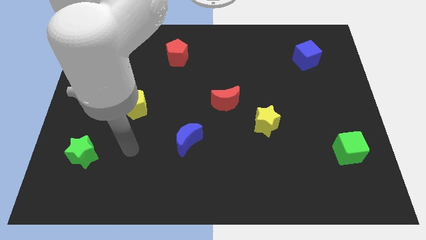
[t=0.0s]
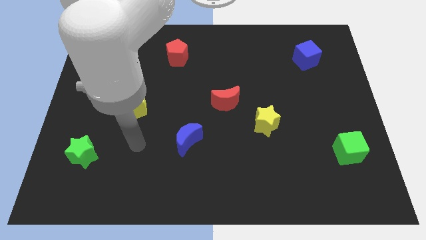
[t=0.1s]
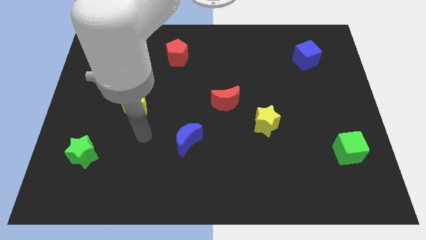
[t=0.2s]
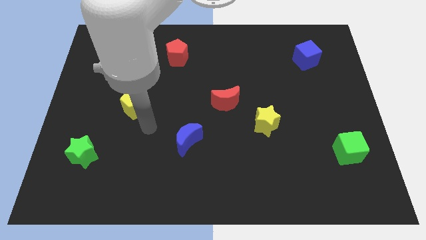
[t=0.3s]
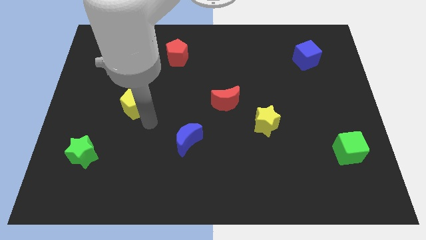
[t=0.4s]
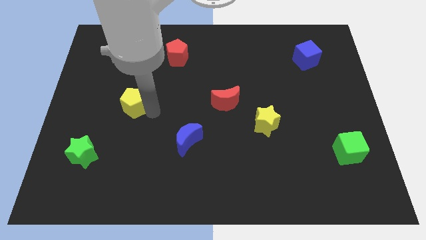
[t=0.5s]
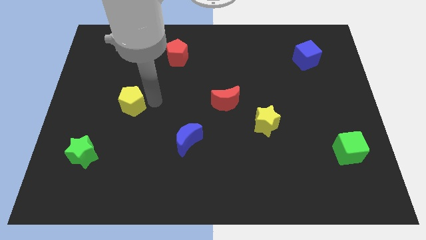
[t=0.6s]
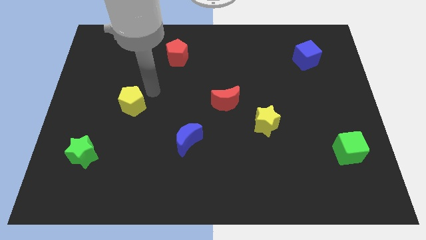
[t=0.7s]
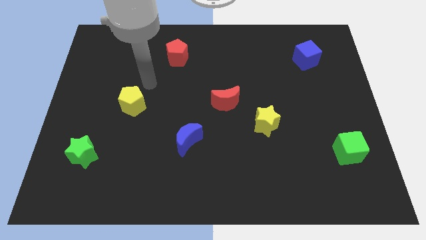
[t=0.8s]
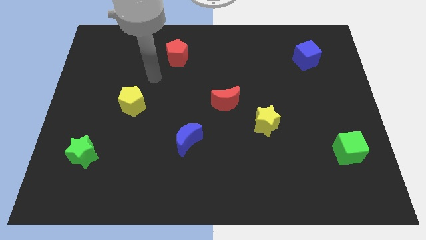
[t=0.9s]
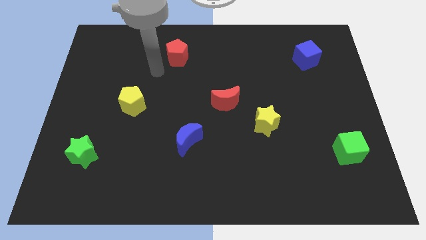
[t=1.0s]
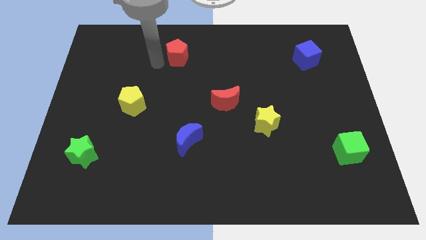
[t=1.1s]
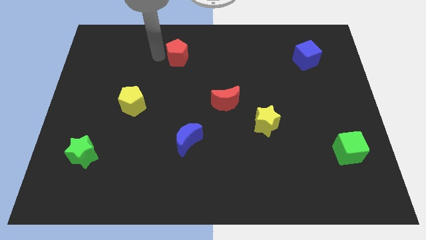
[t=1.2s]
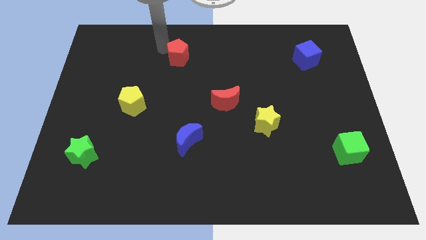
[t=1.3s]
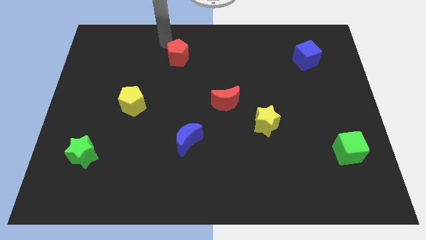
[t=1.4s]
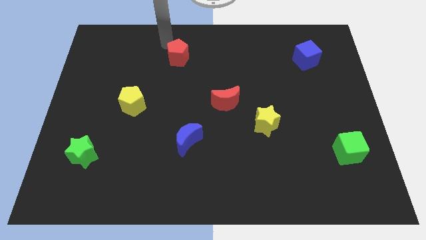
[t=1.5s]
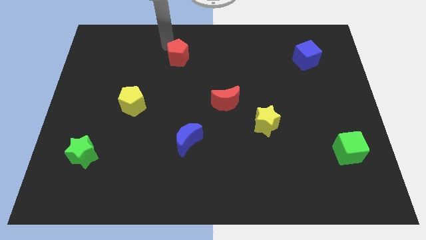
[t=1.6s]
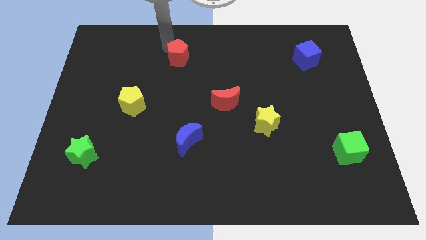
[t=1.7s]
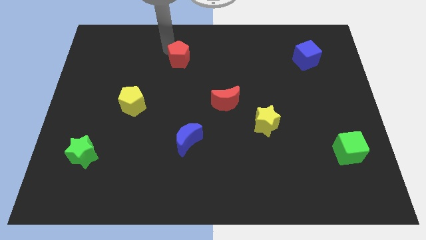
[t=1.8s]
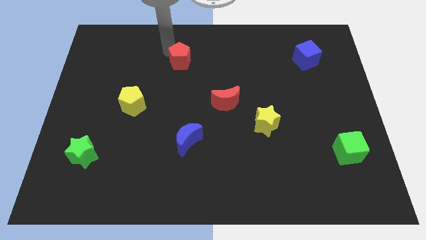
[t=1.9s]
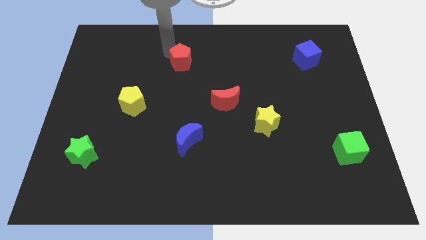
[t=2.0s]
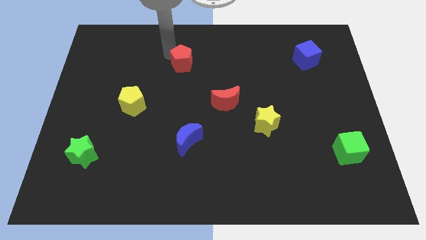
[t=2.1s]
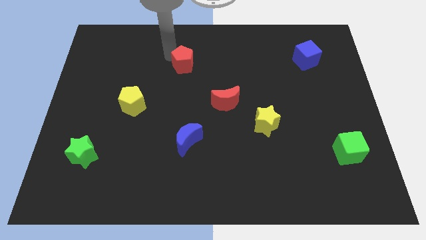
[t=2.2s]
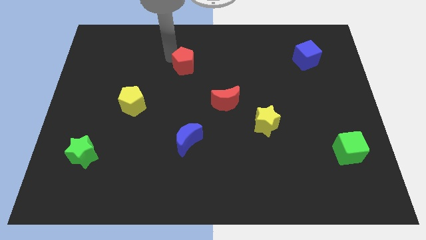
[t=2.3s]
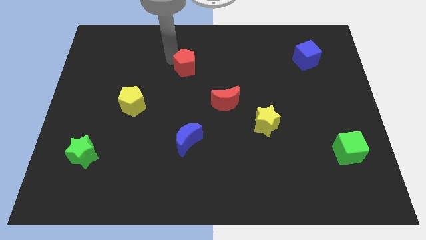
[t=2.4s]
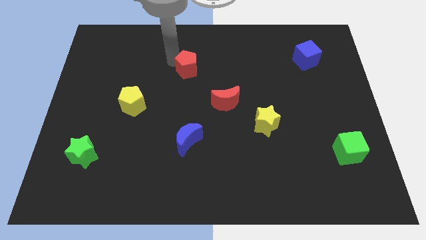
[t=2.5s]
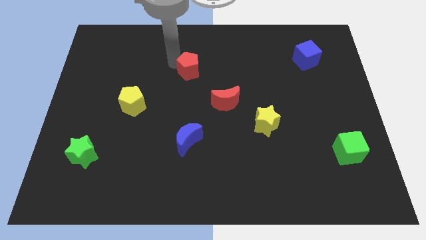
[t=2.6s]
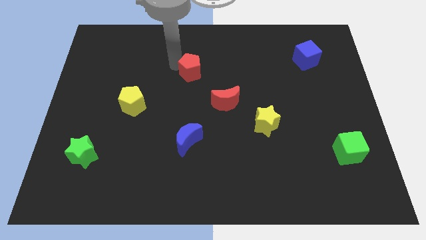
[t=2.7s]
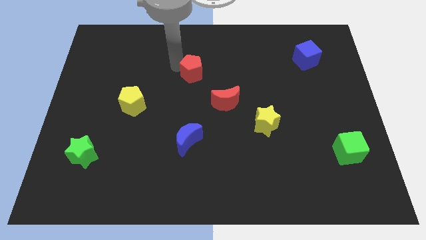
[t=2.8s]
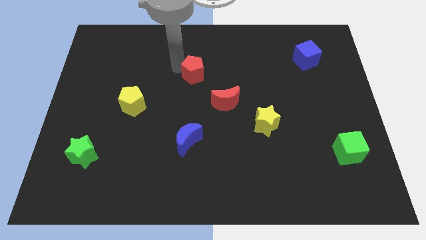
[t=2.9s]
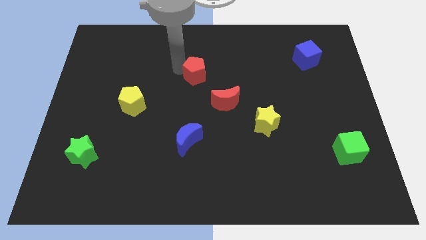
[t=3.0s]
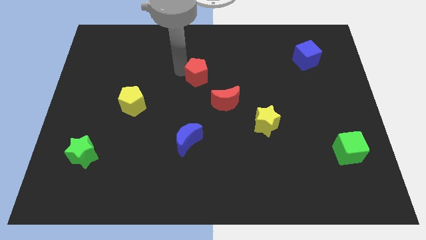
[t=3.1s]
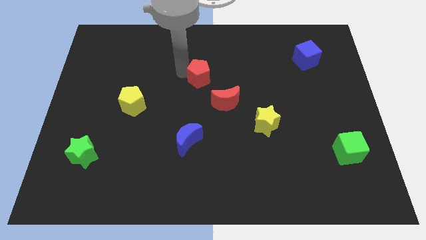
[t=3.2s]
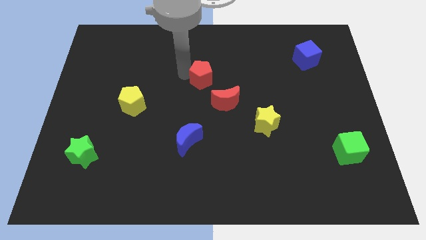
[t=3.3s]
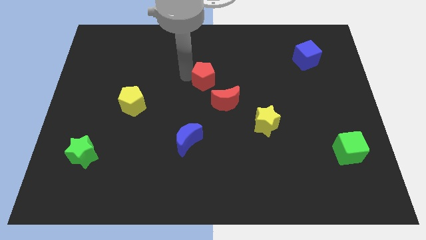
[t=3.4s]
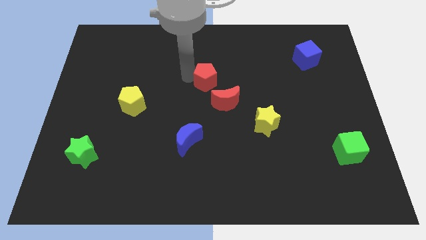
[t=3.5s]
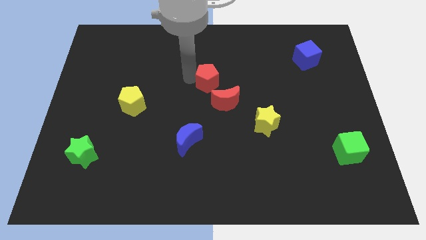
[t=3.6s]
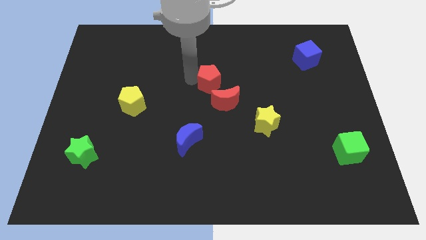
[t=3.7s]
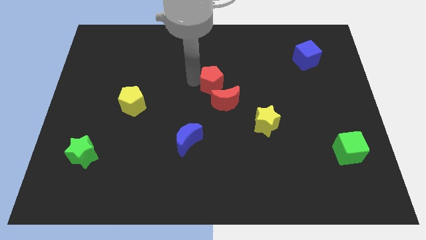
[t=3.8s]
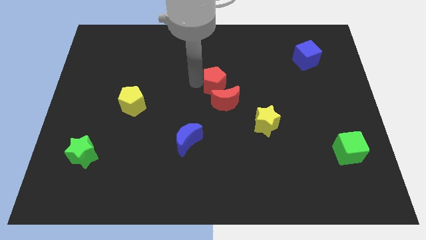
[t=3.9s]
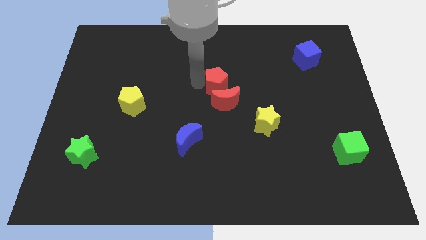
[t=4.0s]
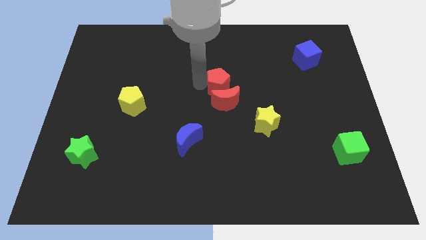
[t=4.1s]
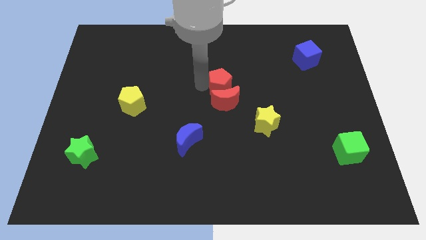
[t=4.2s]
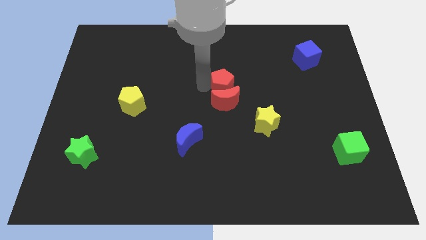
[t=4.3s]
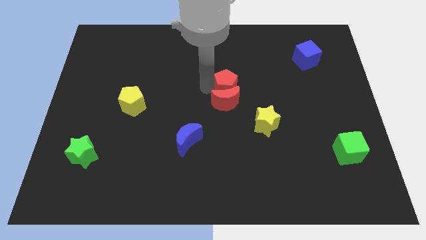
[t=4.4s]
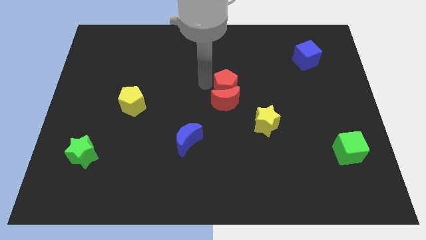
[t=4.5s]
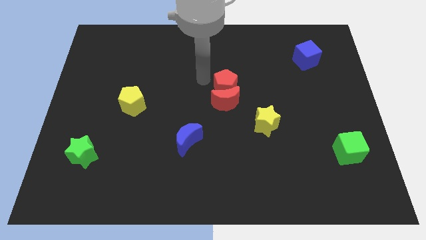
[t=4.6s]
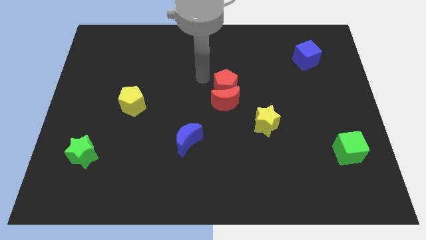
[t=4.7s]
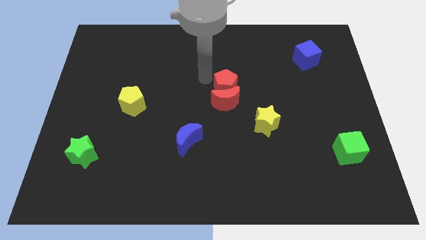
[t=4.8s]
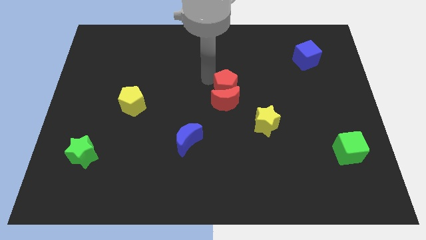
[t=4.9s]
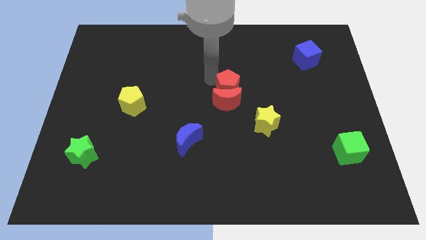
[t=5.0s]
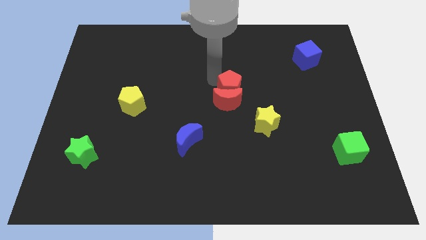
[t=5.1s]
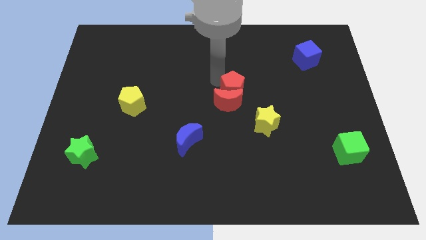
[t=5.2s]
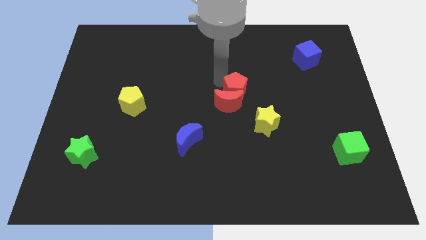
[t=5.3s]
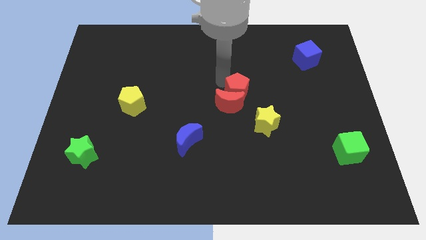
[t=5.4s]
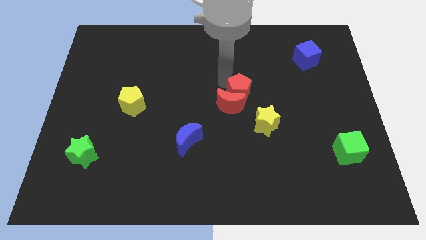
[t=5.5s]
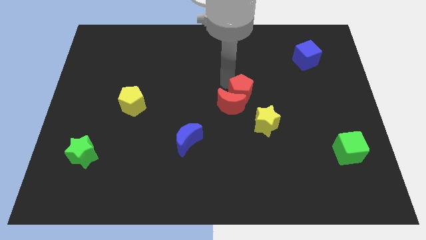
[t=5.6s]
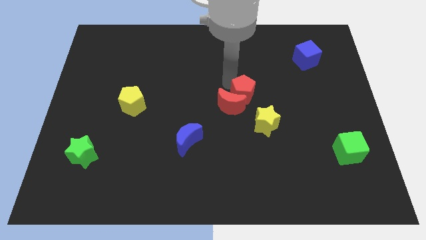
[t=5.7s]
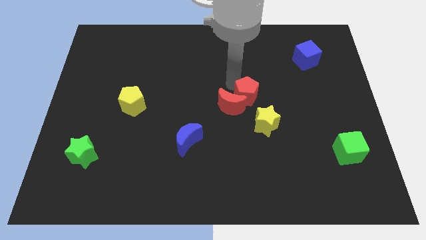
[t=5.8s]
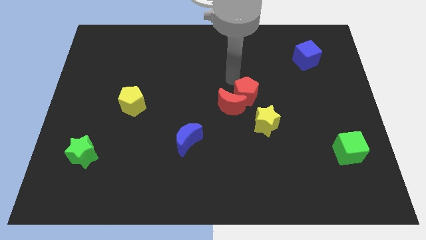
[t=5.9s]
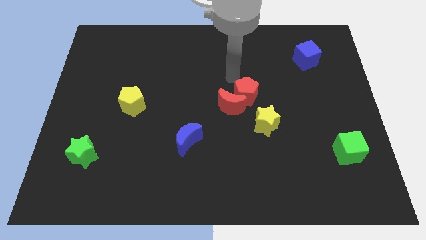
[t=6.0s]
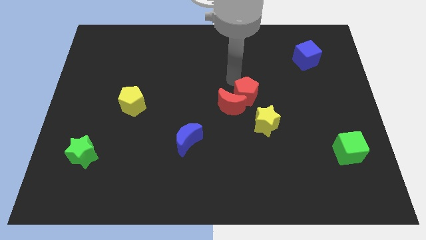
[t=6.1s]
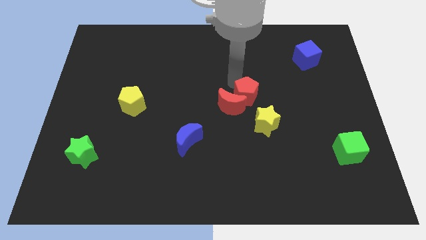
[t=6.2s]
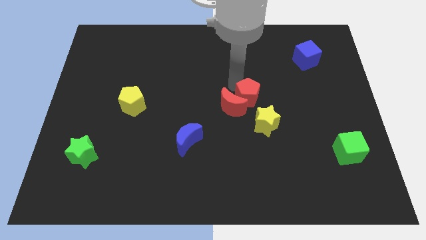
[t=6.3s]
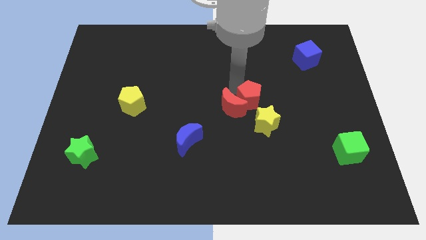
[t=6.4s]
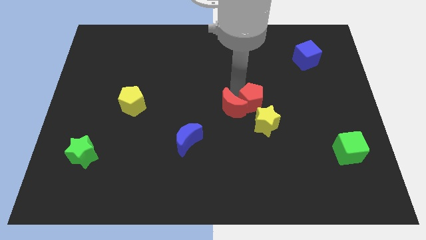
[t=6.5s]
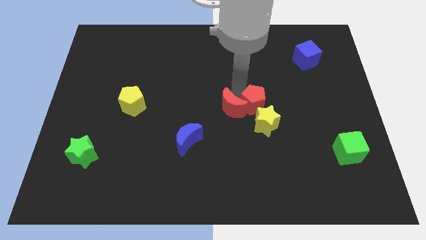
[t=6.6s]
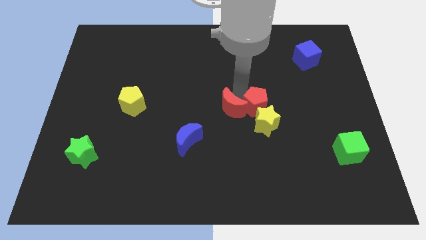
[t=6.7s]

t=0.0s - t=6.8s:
slide the red pentagon close to the yellow star
